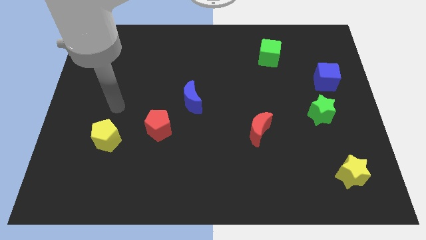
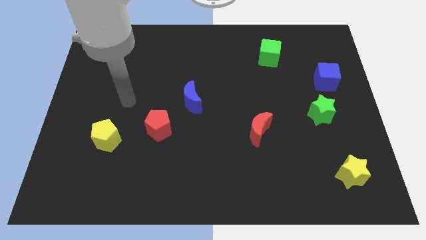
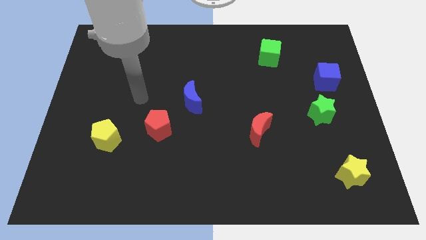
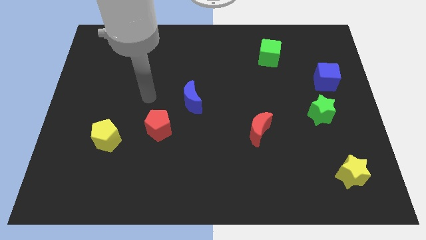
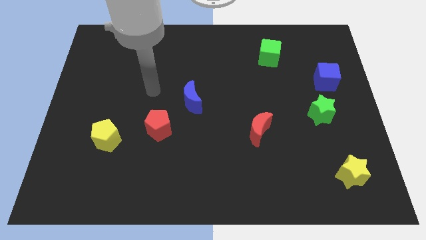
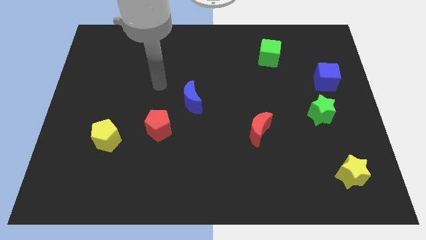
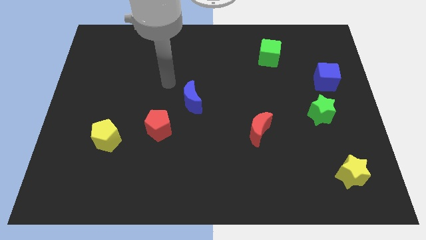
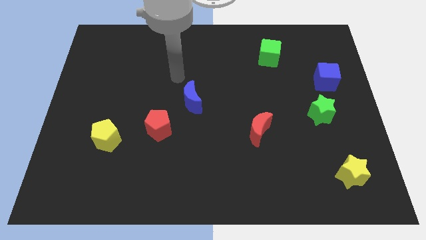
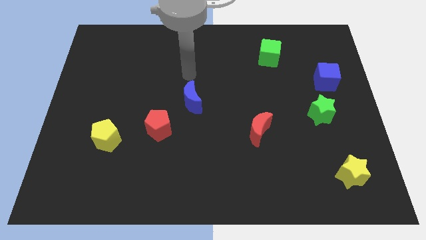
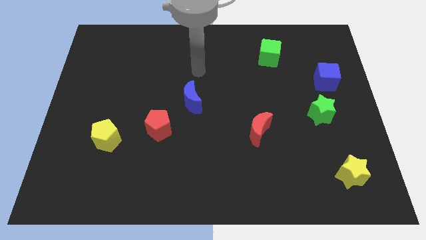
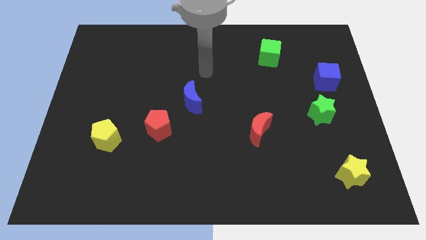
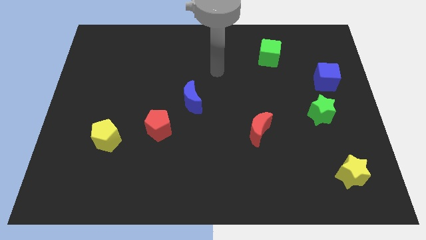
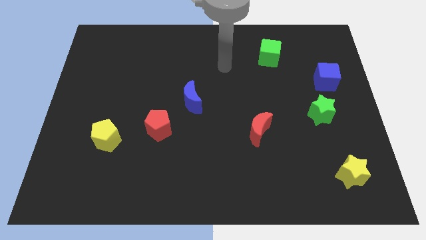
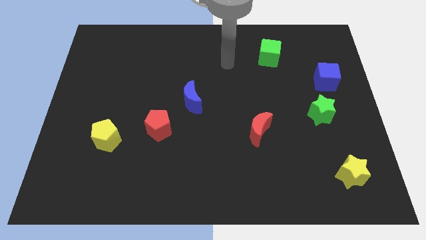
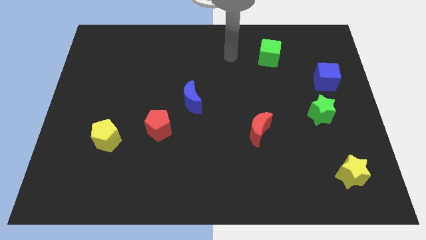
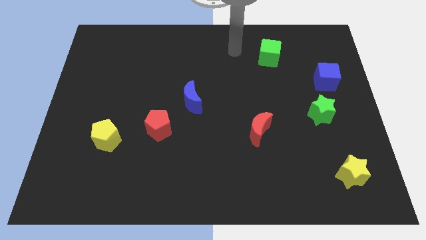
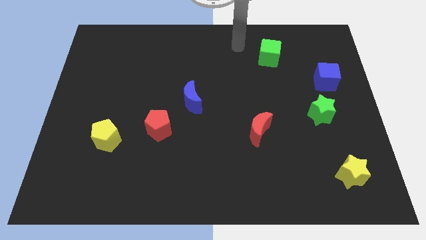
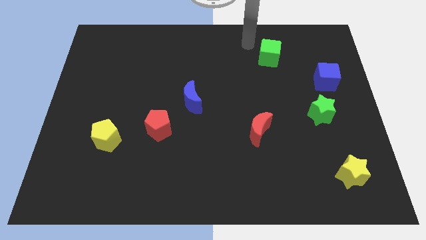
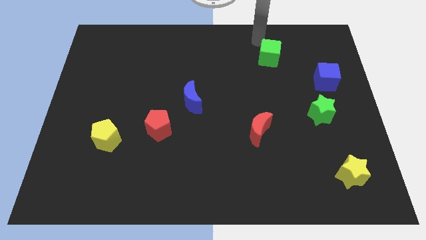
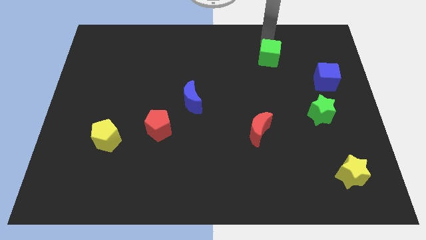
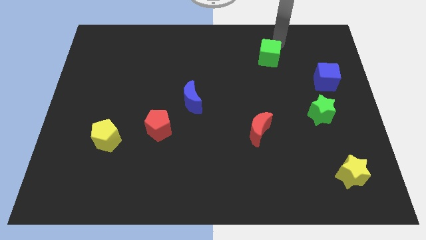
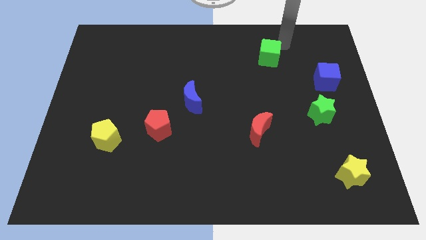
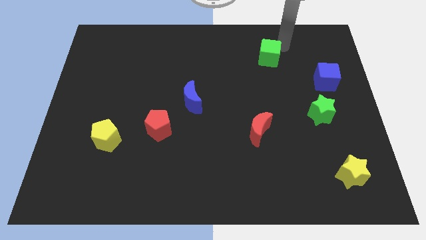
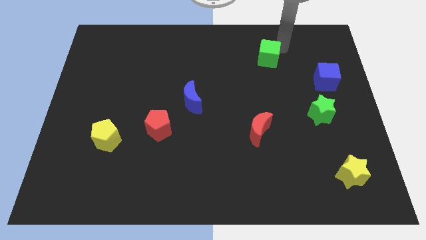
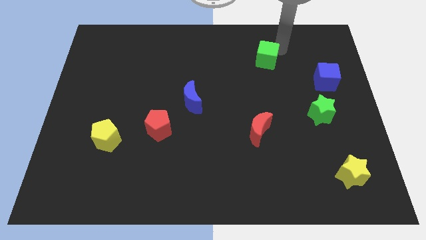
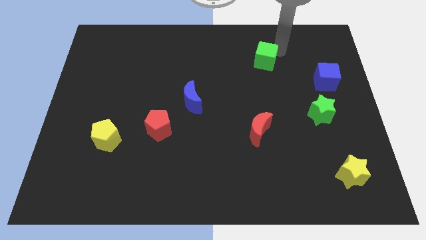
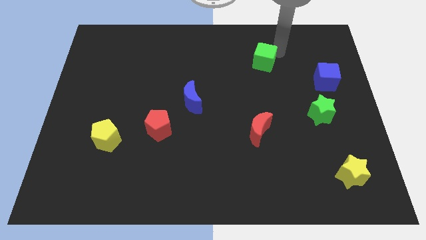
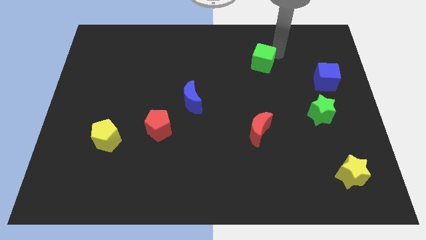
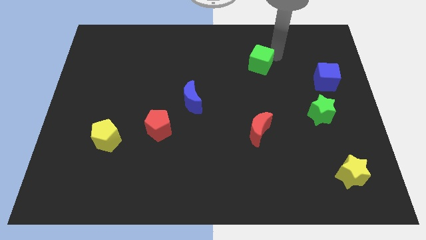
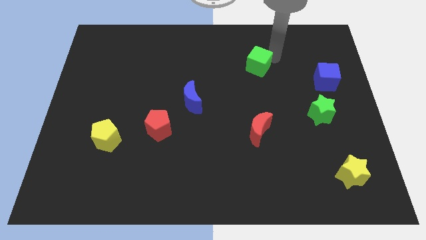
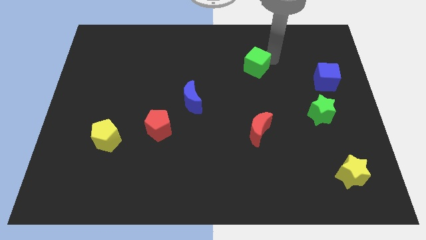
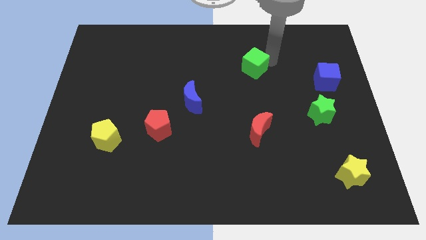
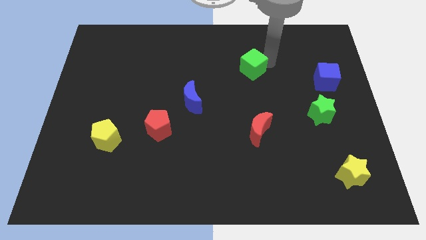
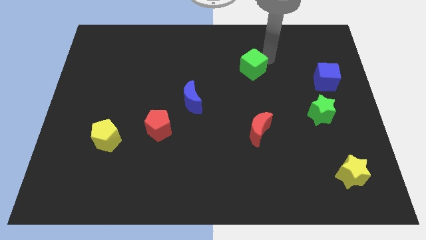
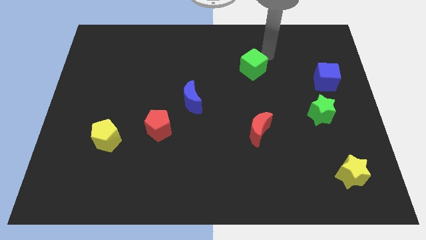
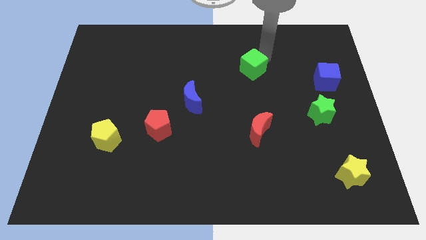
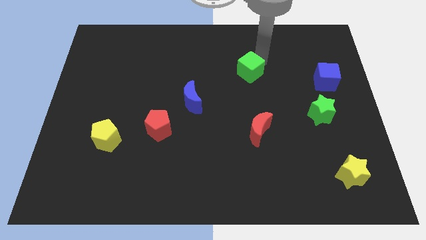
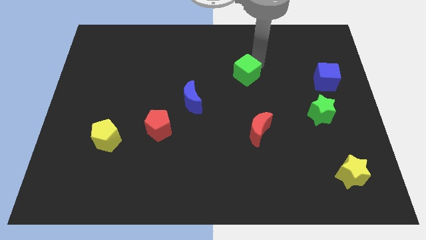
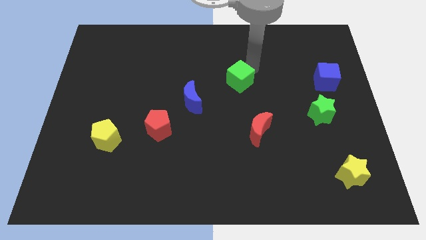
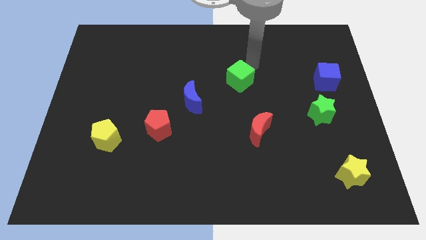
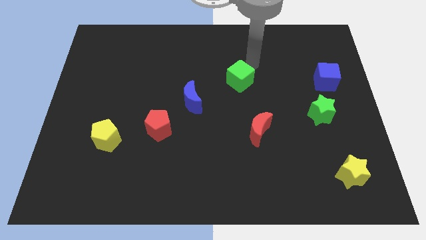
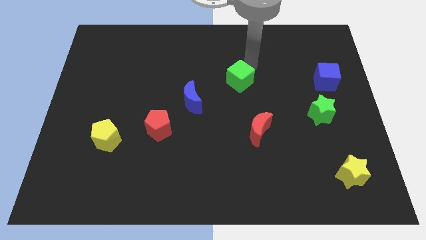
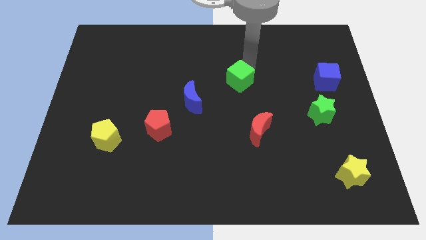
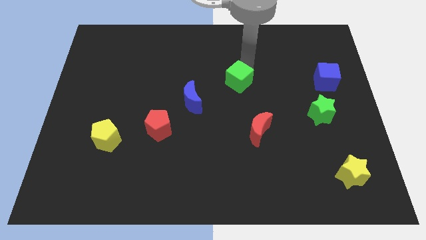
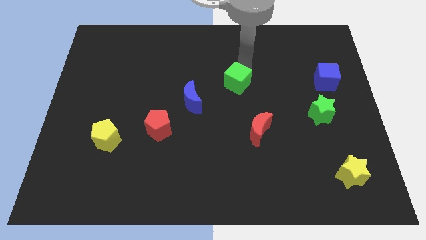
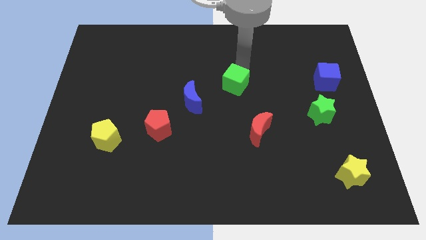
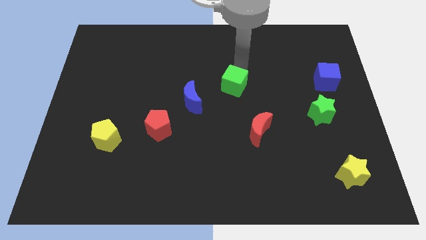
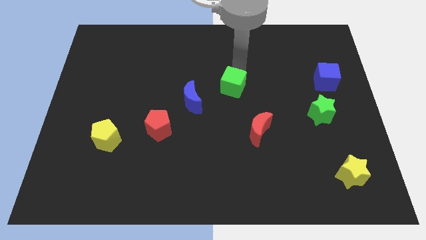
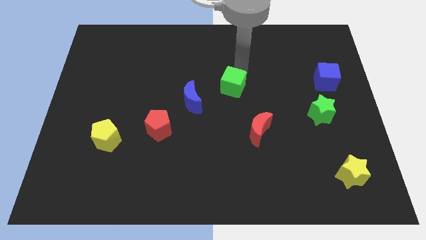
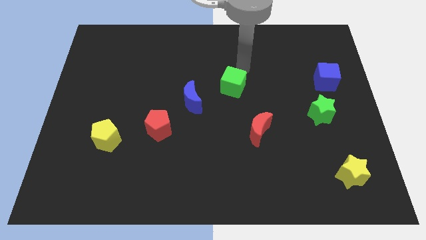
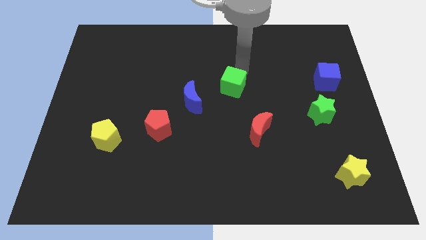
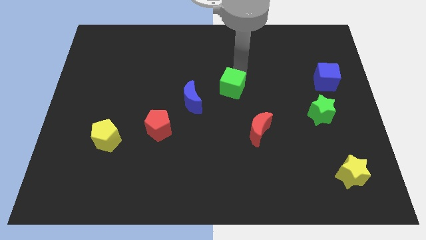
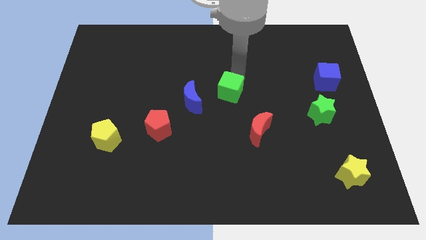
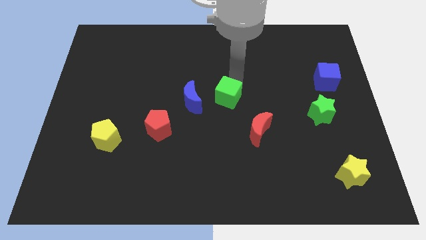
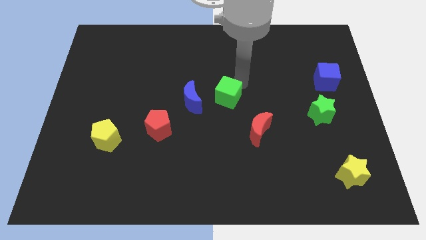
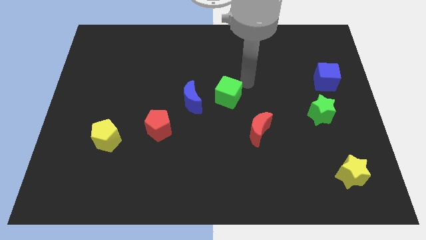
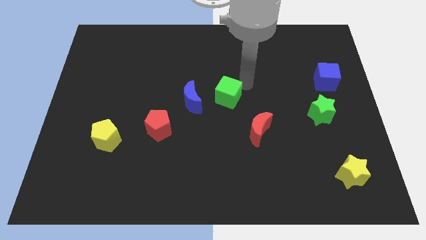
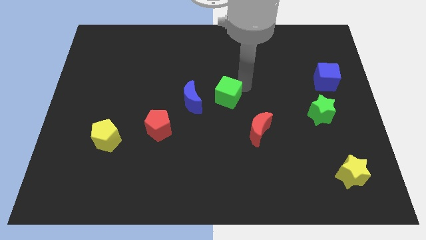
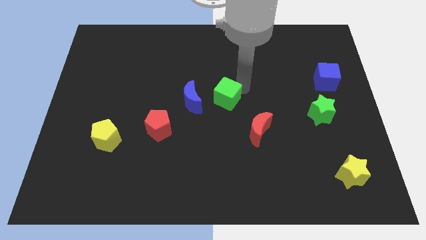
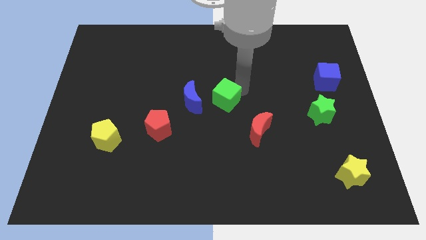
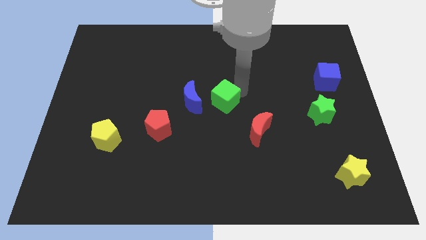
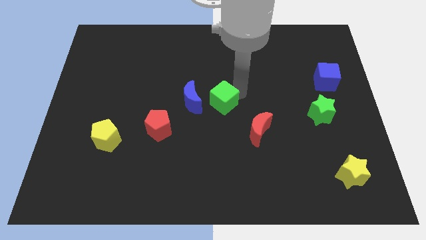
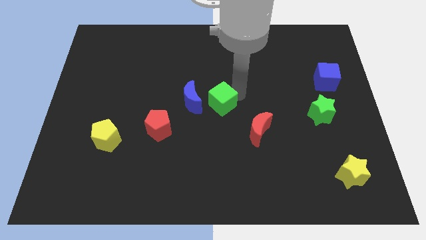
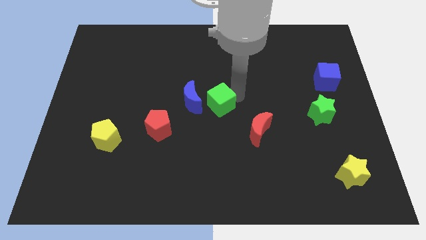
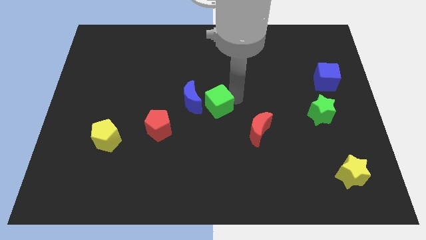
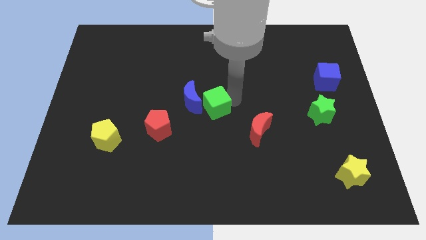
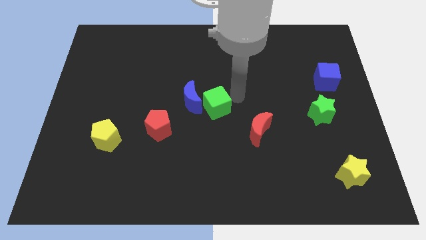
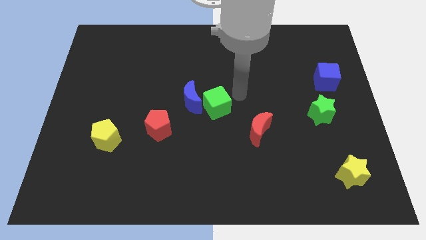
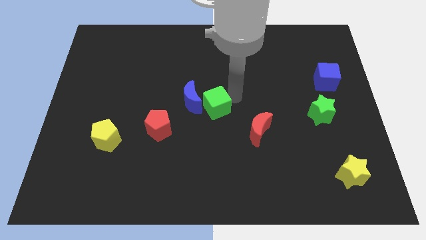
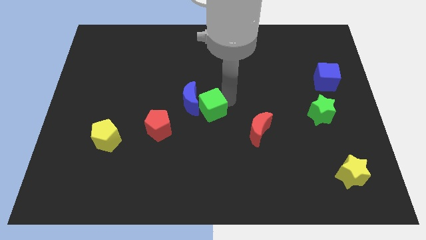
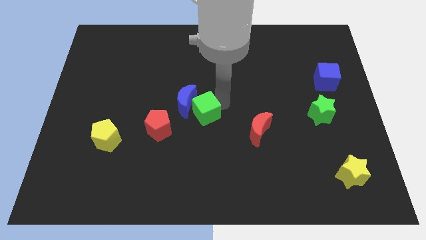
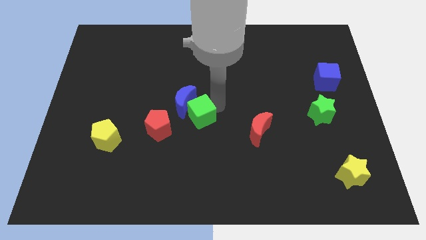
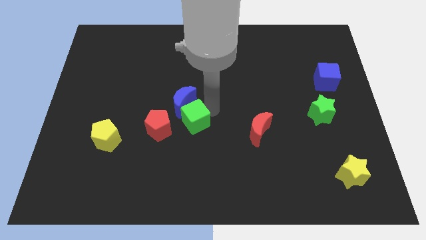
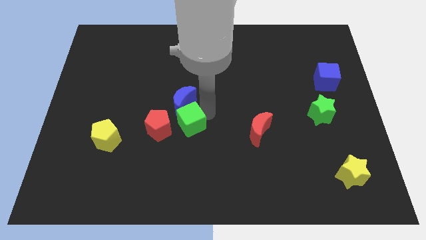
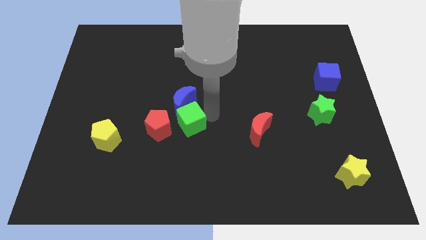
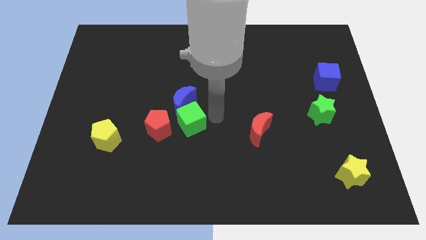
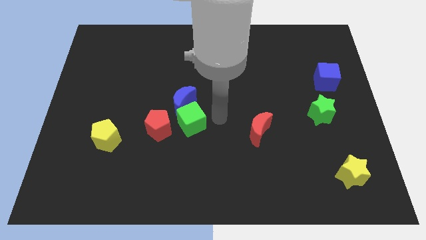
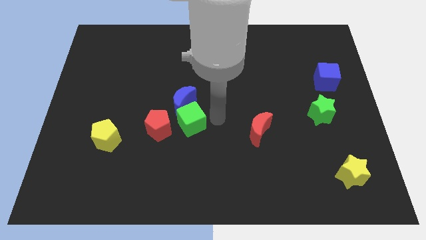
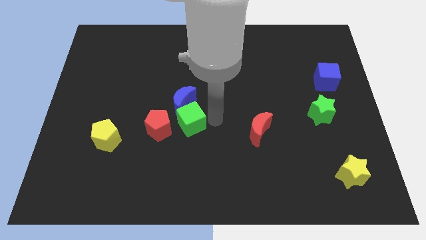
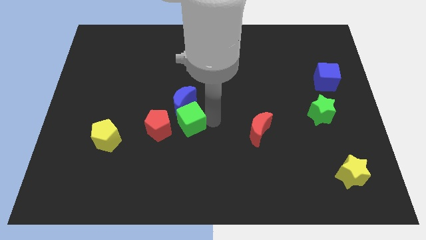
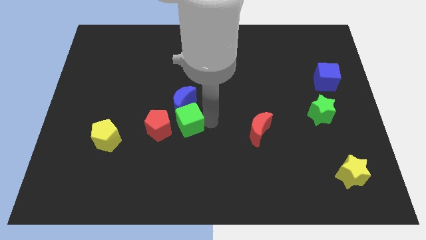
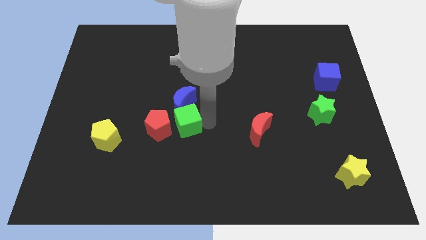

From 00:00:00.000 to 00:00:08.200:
push the green cube close to the red pentagon
